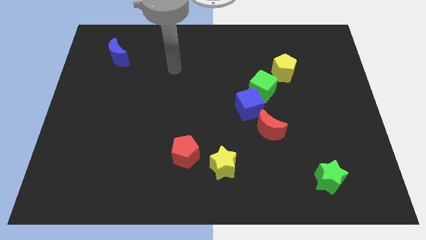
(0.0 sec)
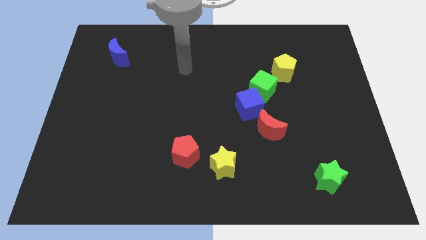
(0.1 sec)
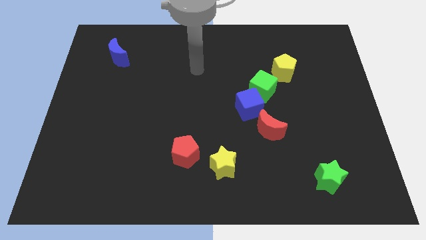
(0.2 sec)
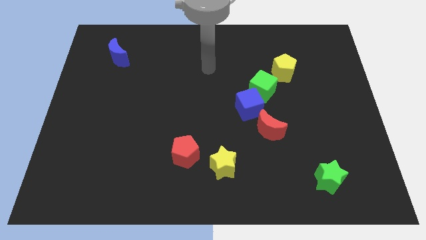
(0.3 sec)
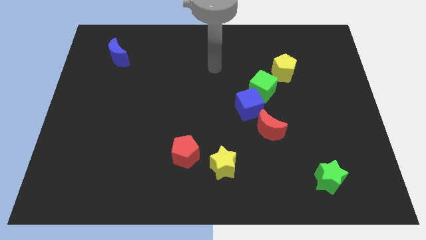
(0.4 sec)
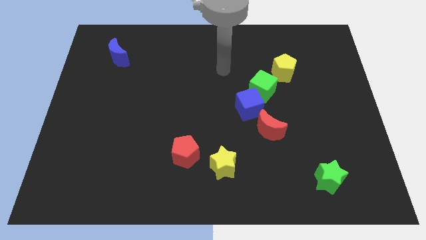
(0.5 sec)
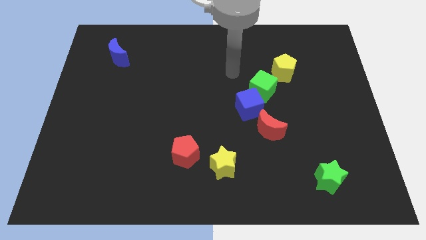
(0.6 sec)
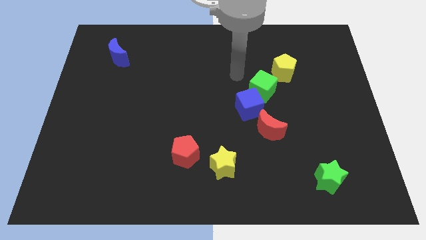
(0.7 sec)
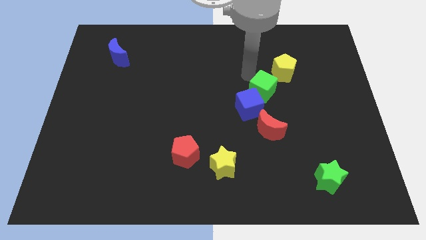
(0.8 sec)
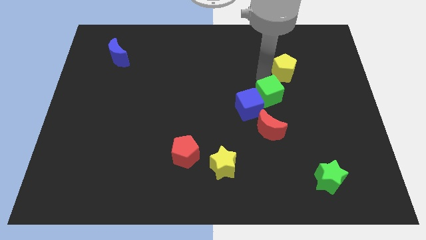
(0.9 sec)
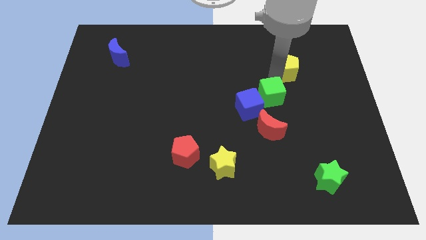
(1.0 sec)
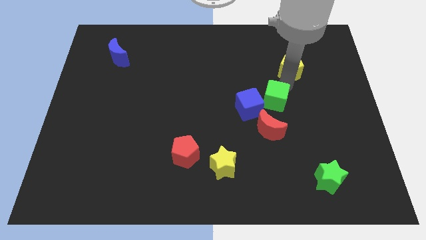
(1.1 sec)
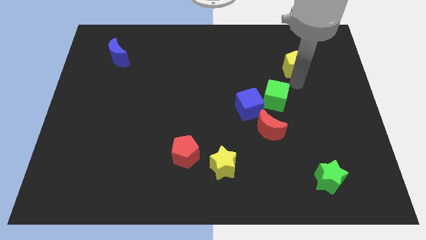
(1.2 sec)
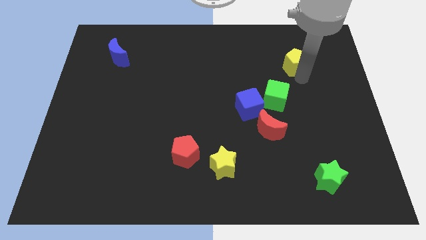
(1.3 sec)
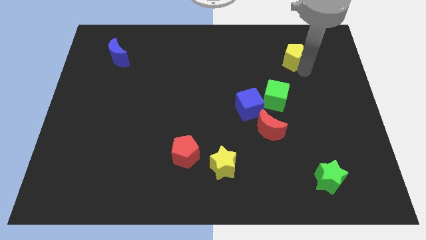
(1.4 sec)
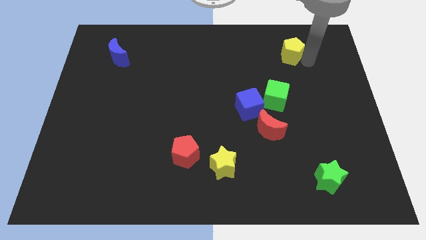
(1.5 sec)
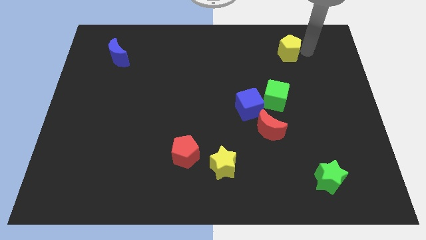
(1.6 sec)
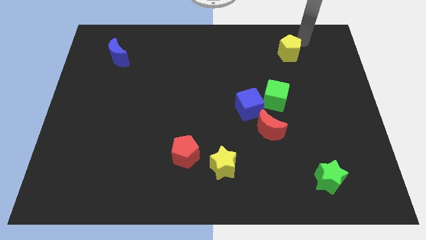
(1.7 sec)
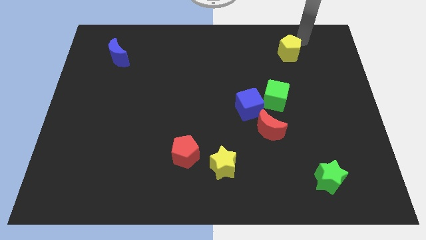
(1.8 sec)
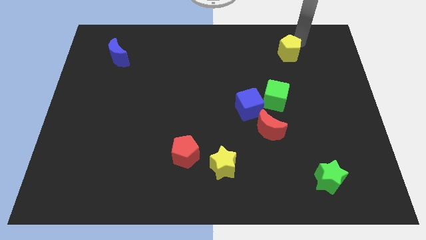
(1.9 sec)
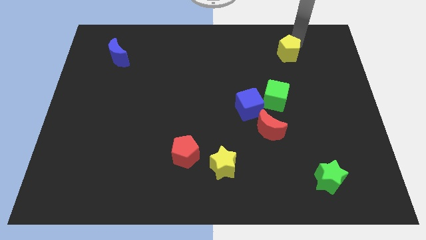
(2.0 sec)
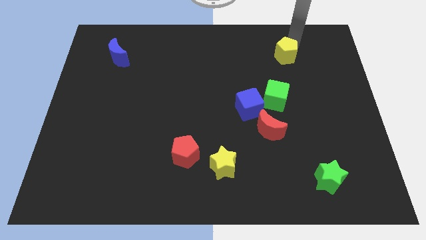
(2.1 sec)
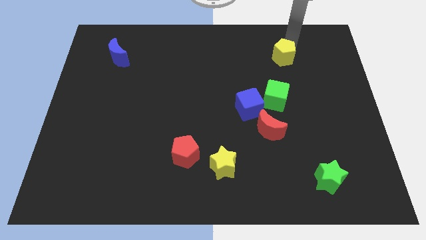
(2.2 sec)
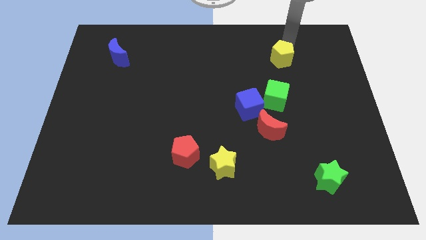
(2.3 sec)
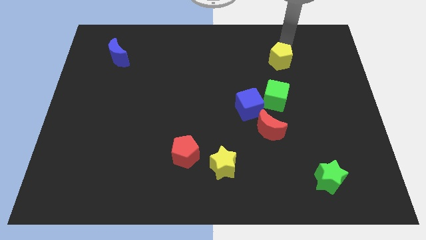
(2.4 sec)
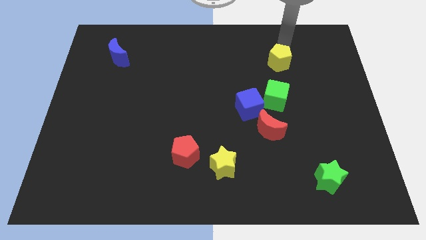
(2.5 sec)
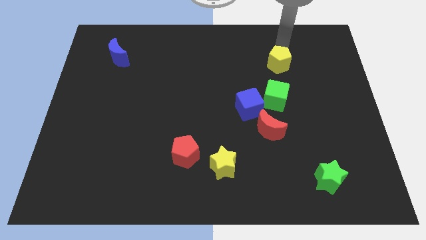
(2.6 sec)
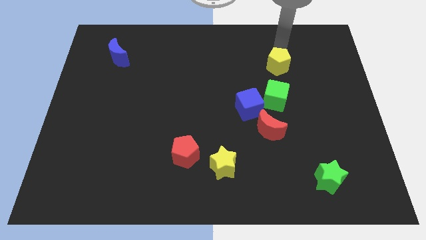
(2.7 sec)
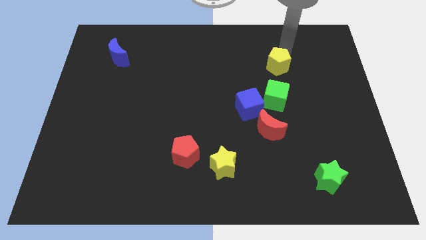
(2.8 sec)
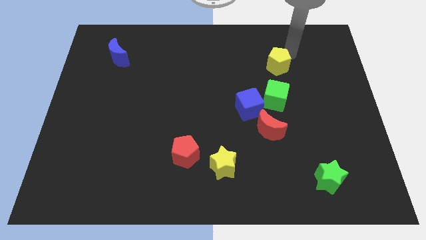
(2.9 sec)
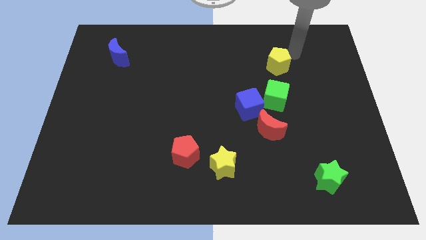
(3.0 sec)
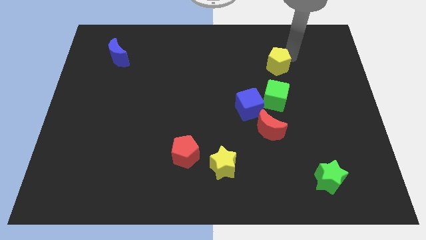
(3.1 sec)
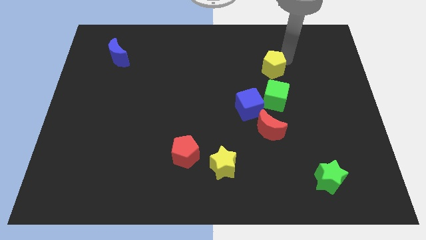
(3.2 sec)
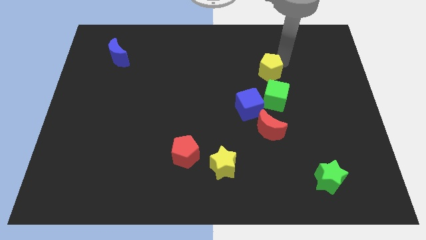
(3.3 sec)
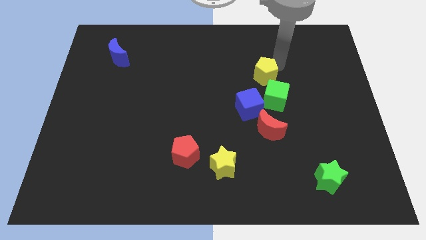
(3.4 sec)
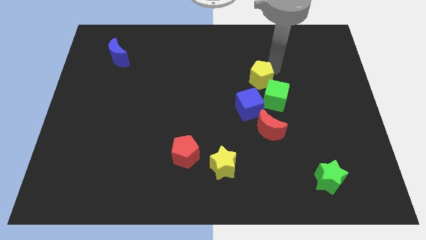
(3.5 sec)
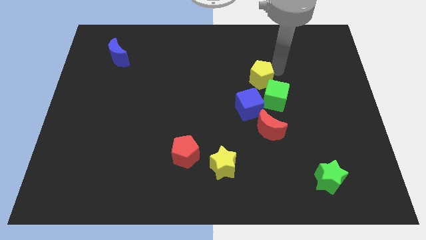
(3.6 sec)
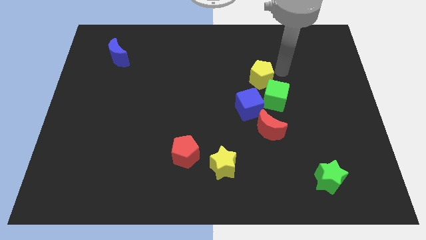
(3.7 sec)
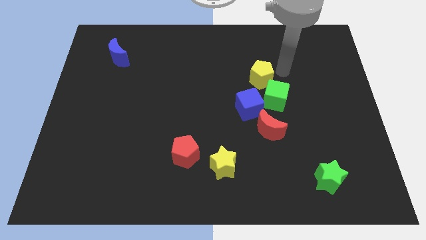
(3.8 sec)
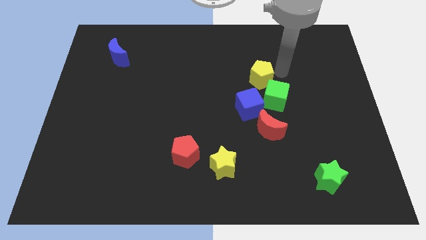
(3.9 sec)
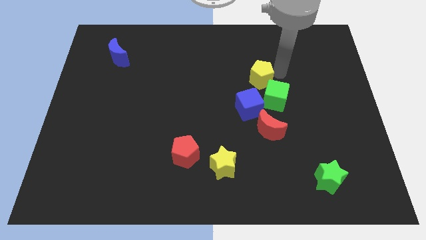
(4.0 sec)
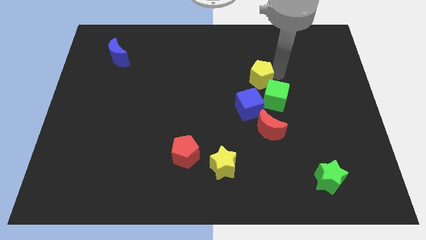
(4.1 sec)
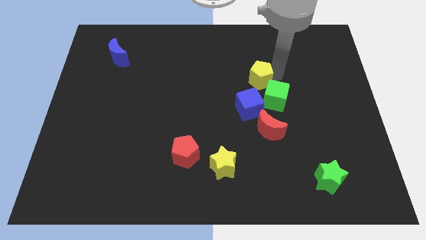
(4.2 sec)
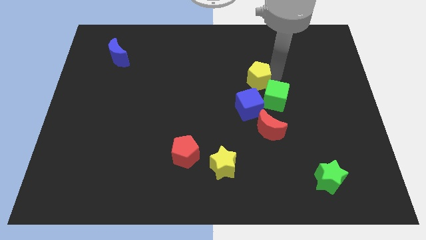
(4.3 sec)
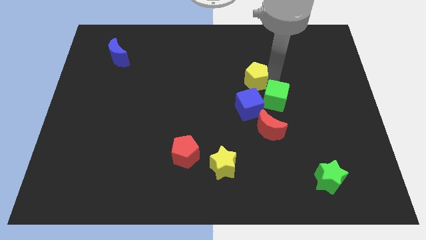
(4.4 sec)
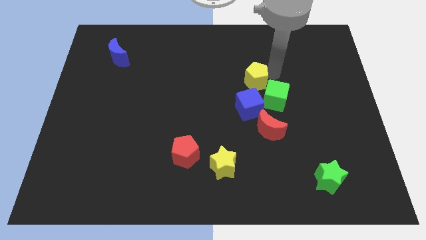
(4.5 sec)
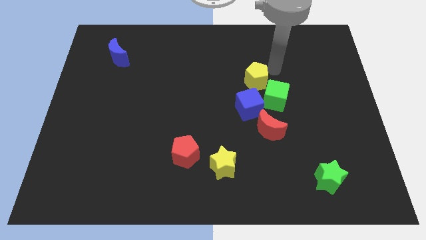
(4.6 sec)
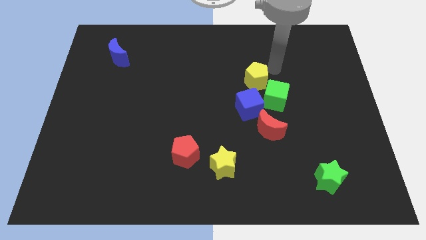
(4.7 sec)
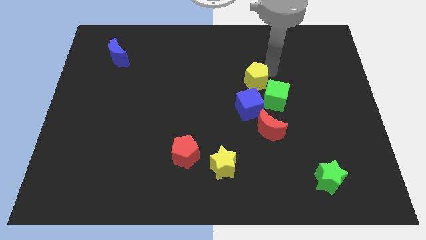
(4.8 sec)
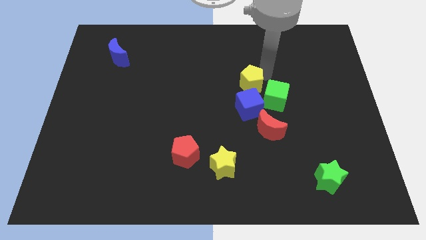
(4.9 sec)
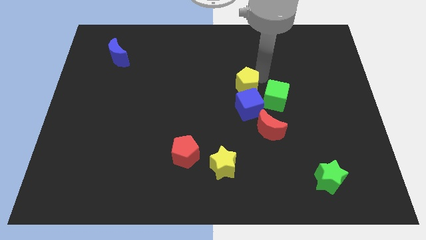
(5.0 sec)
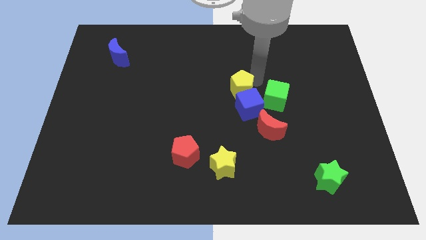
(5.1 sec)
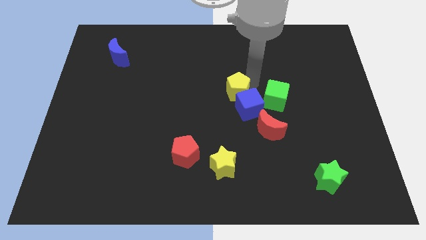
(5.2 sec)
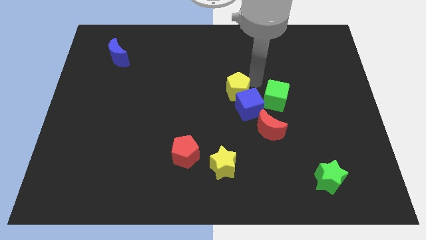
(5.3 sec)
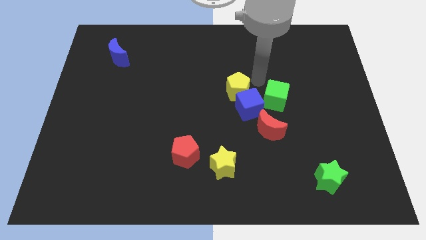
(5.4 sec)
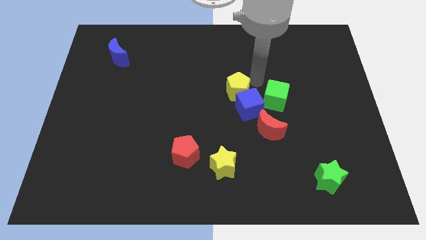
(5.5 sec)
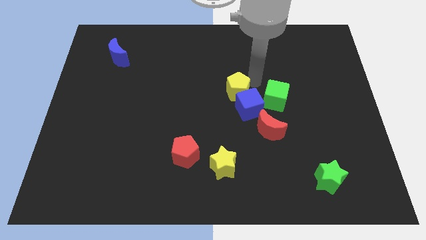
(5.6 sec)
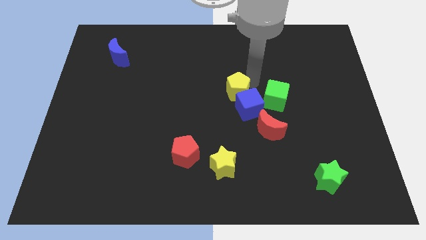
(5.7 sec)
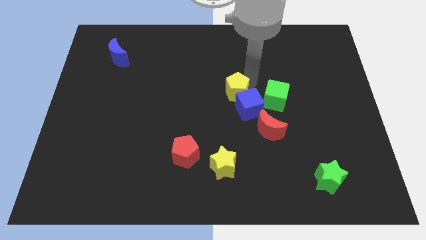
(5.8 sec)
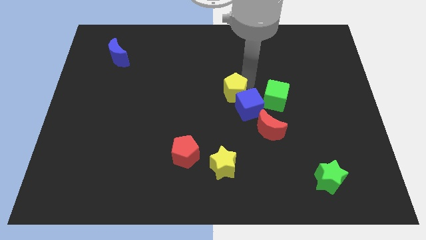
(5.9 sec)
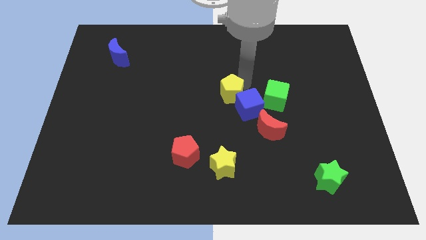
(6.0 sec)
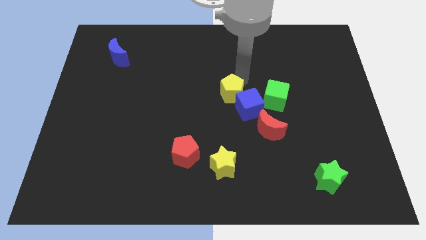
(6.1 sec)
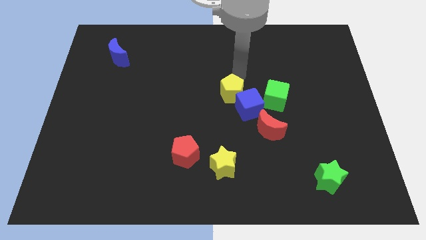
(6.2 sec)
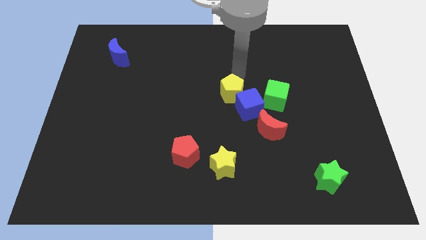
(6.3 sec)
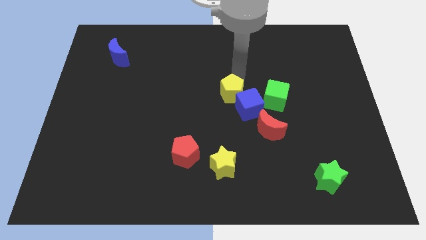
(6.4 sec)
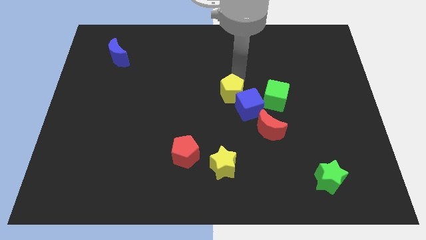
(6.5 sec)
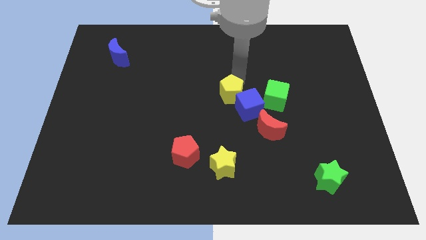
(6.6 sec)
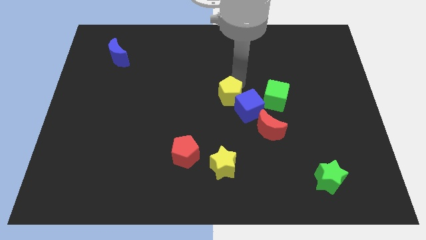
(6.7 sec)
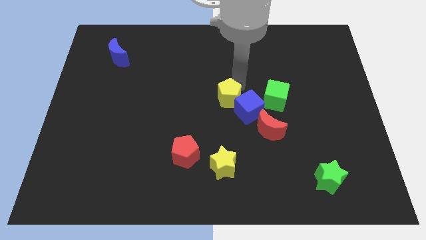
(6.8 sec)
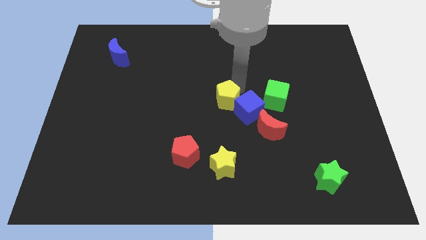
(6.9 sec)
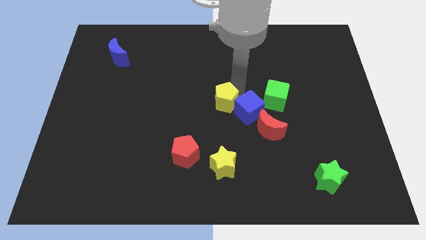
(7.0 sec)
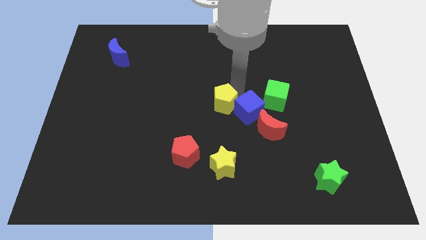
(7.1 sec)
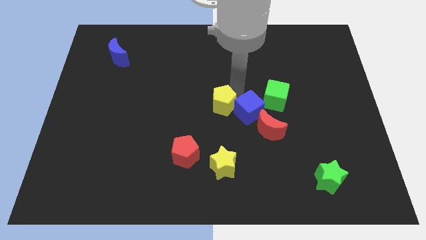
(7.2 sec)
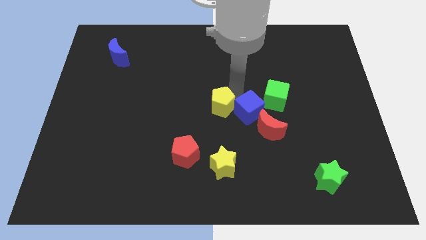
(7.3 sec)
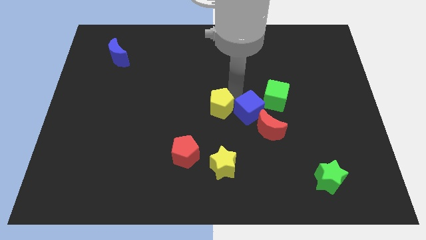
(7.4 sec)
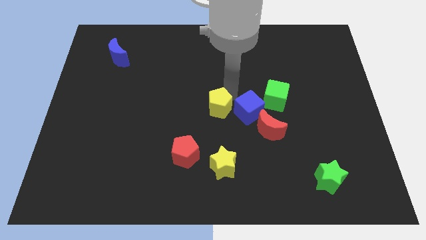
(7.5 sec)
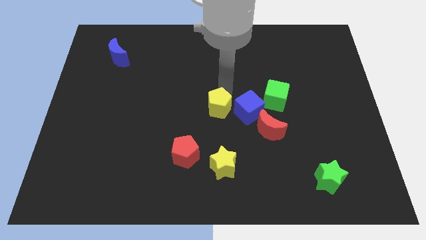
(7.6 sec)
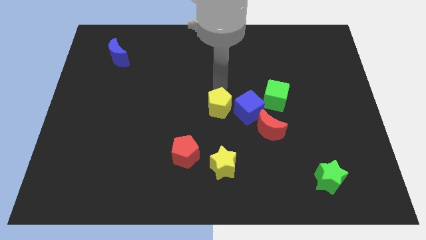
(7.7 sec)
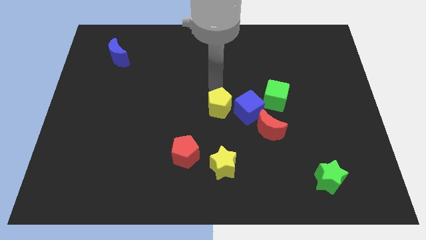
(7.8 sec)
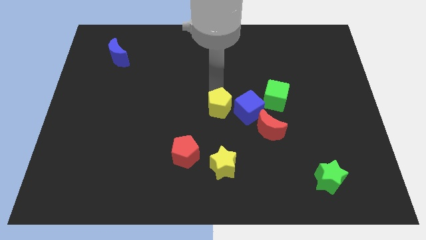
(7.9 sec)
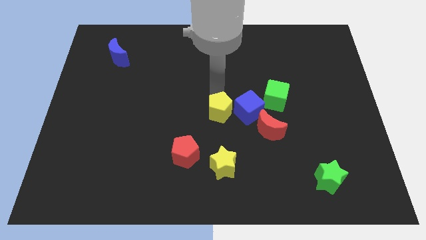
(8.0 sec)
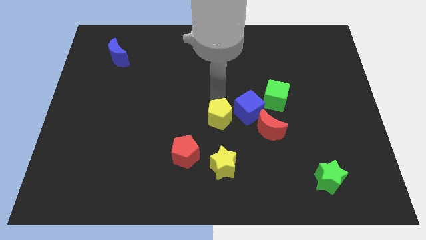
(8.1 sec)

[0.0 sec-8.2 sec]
slide the yellow pentagon left of the red moon
